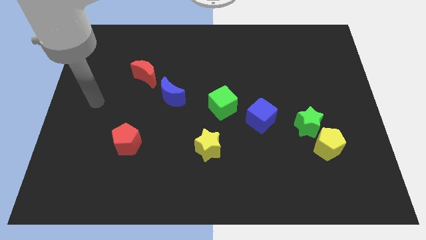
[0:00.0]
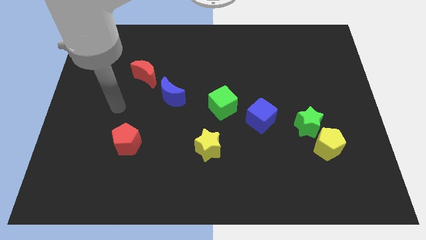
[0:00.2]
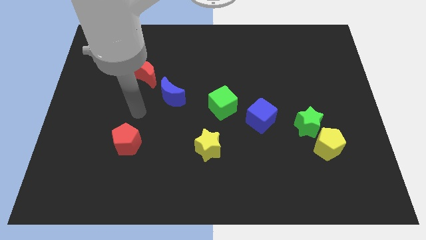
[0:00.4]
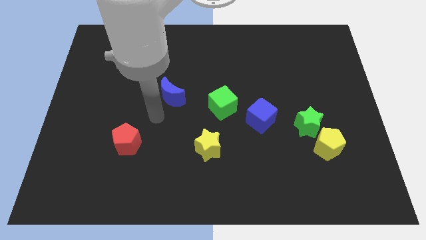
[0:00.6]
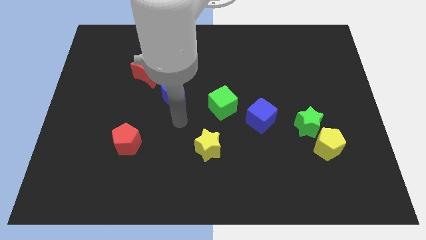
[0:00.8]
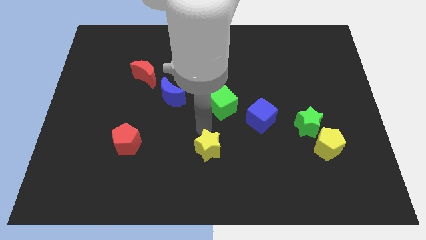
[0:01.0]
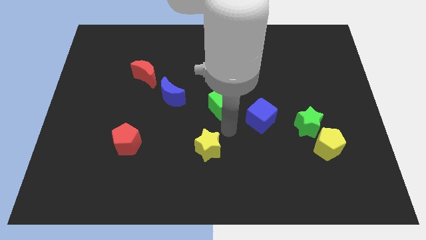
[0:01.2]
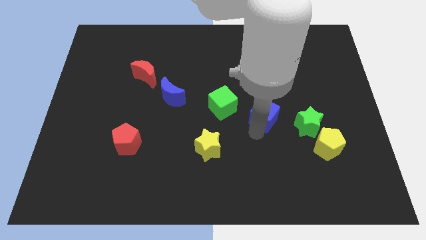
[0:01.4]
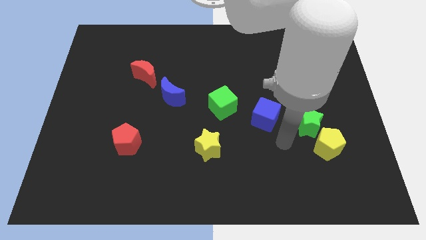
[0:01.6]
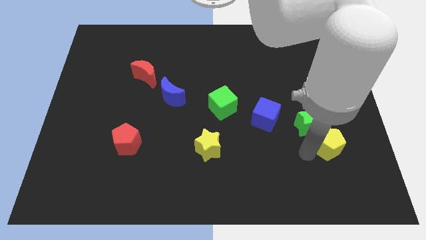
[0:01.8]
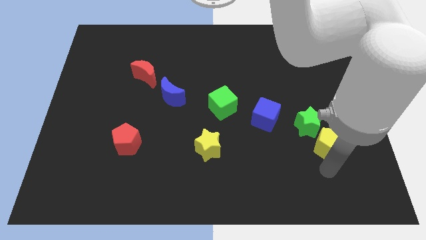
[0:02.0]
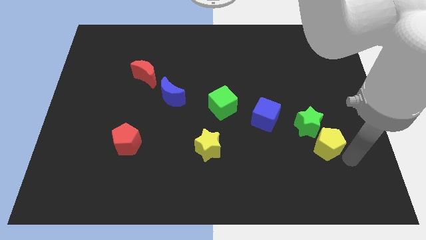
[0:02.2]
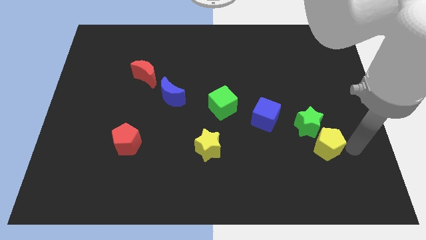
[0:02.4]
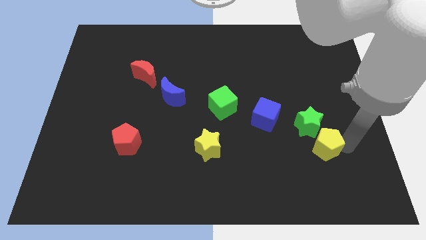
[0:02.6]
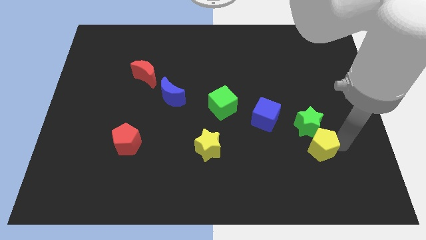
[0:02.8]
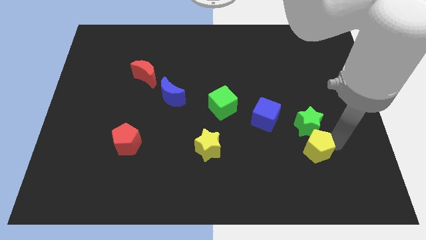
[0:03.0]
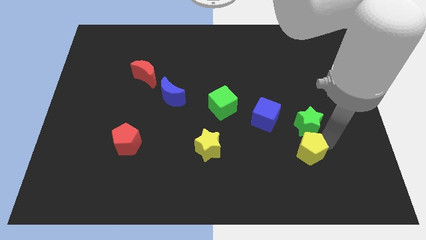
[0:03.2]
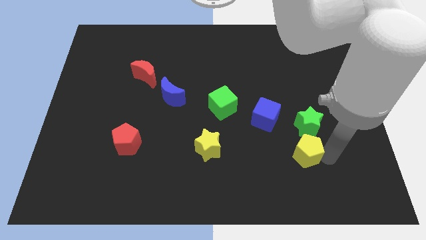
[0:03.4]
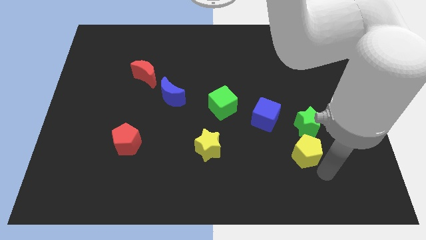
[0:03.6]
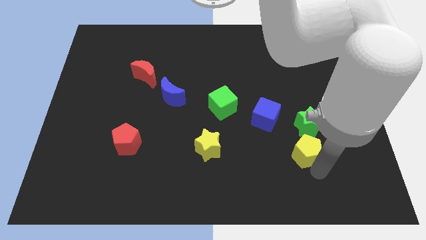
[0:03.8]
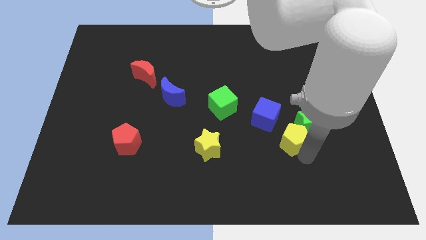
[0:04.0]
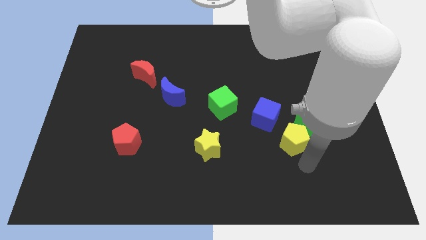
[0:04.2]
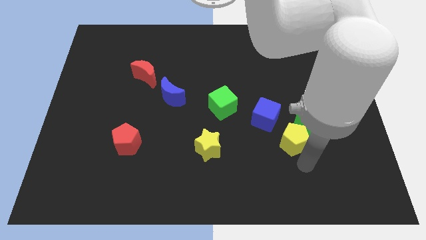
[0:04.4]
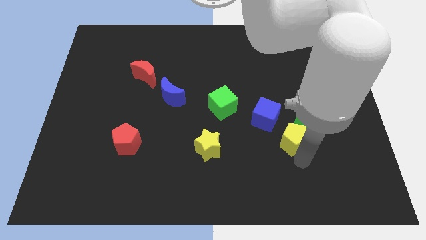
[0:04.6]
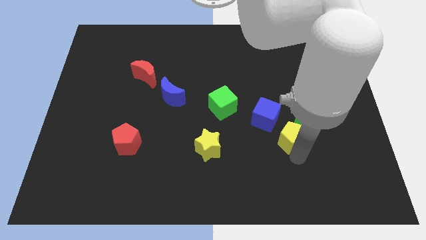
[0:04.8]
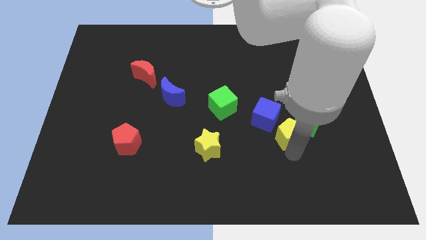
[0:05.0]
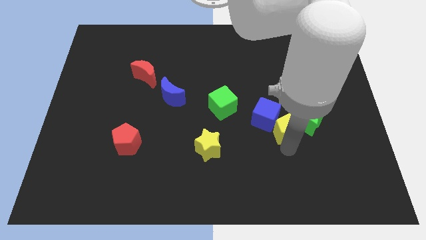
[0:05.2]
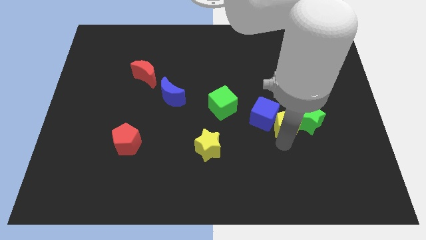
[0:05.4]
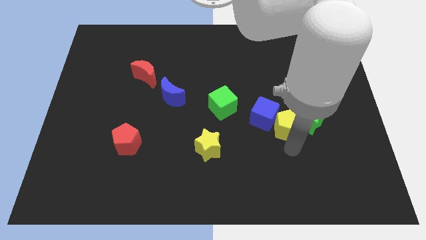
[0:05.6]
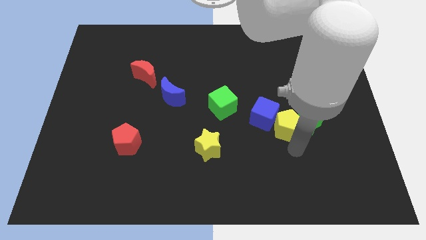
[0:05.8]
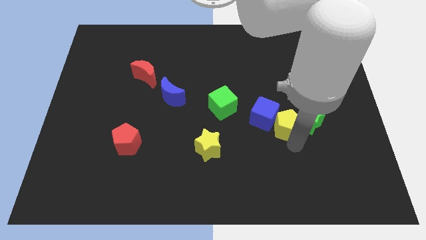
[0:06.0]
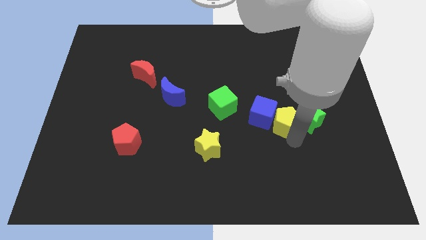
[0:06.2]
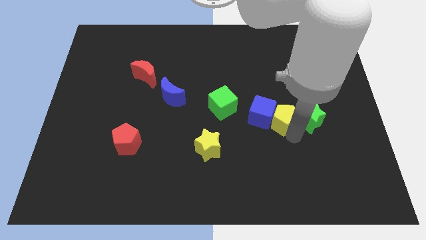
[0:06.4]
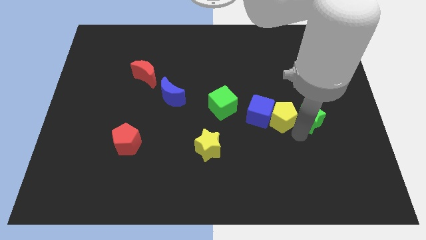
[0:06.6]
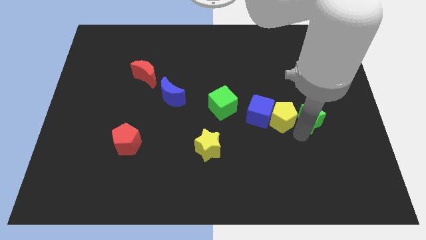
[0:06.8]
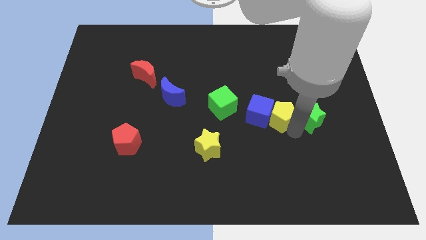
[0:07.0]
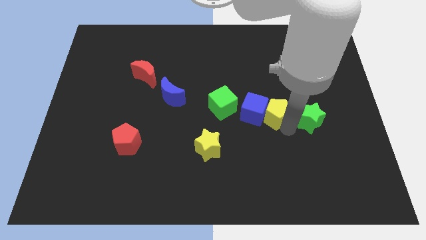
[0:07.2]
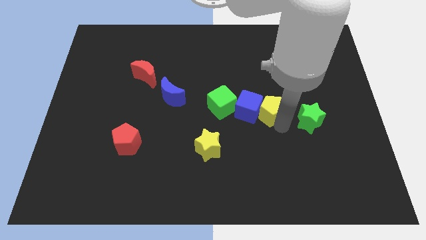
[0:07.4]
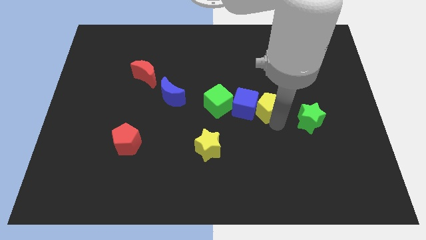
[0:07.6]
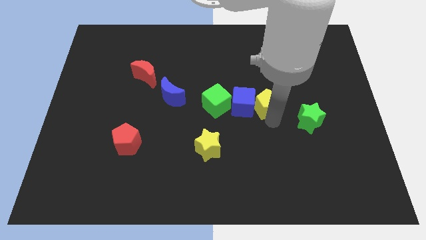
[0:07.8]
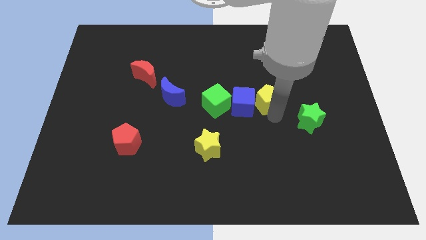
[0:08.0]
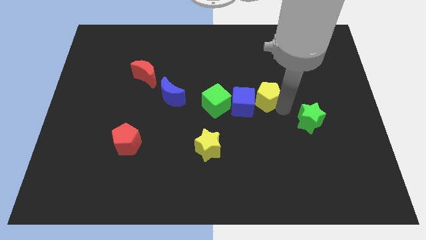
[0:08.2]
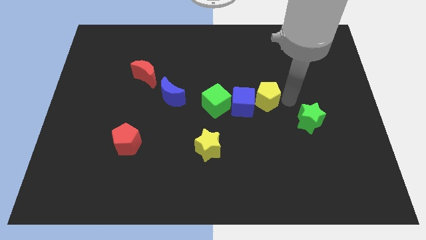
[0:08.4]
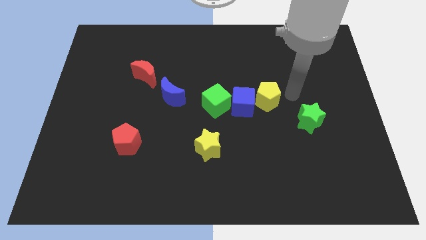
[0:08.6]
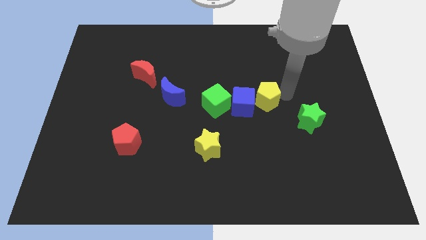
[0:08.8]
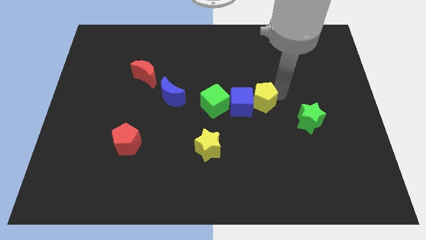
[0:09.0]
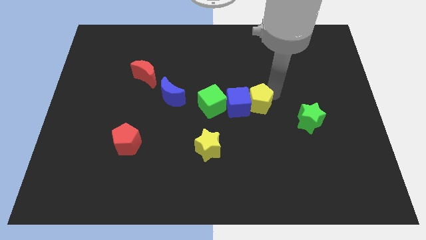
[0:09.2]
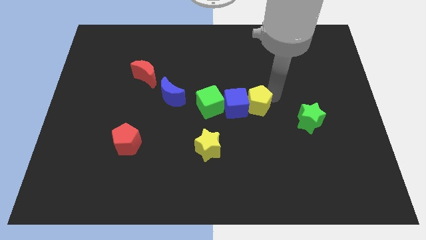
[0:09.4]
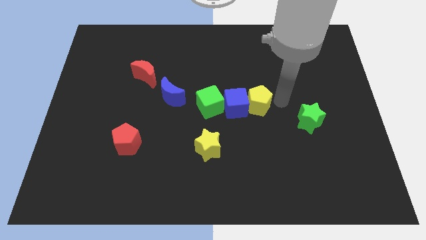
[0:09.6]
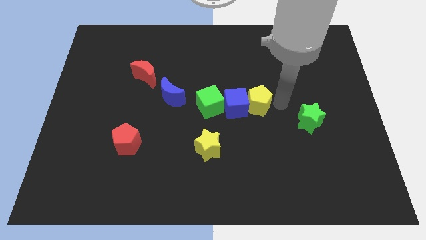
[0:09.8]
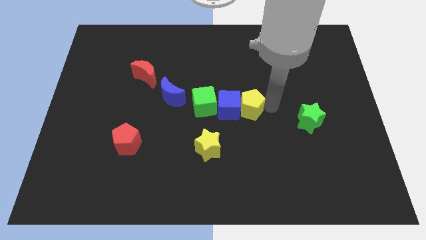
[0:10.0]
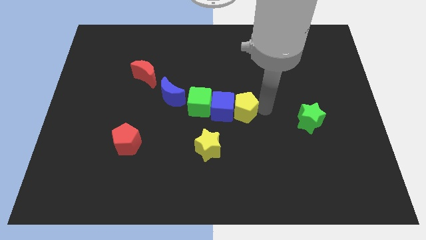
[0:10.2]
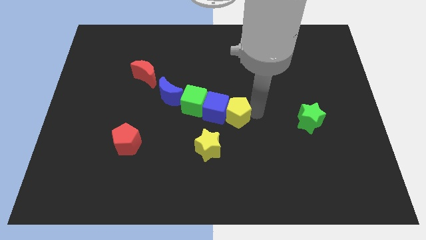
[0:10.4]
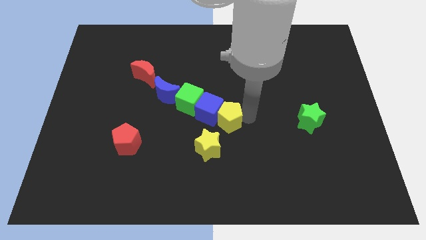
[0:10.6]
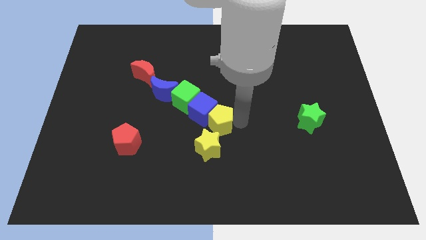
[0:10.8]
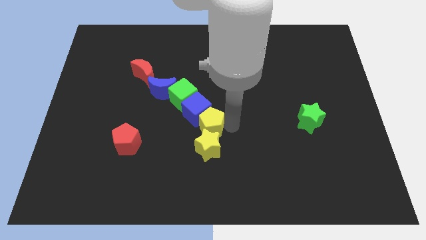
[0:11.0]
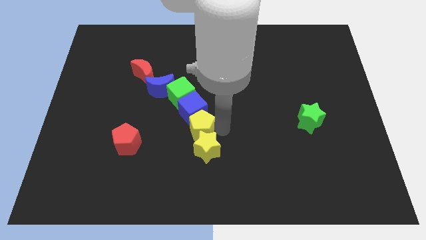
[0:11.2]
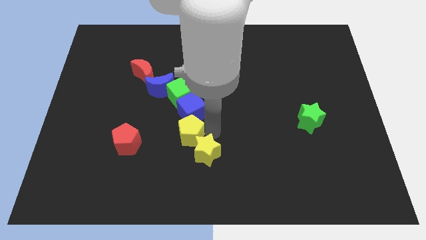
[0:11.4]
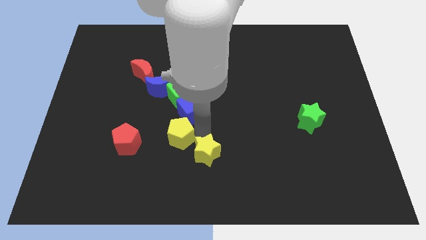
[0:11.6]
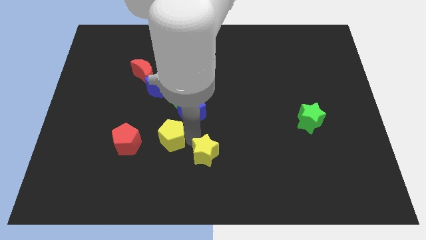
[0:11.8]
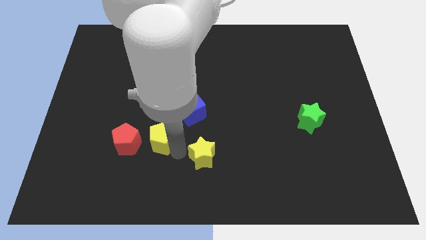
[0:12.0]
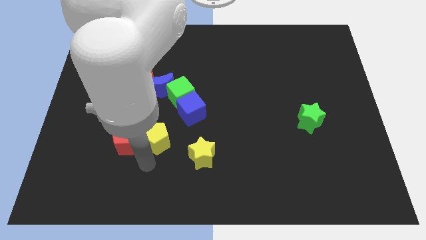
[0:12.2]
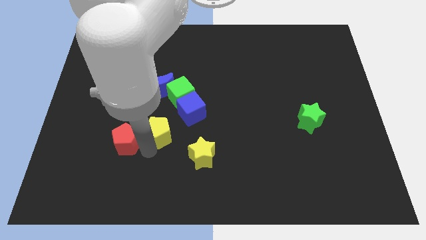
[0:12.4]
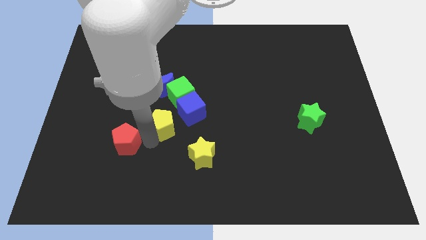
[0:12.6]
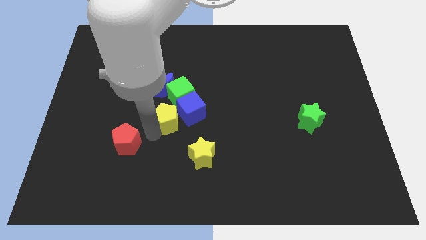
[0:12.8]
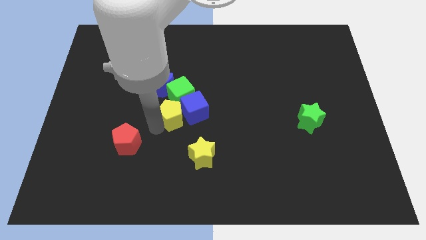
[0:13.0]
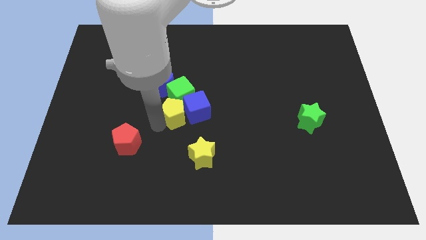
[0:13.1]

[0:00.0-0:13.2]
push the yellow pentagon next to the green cube

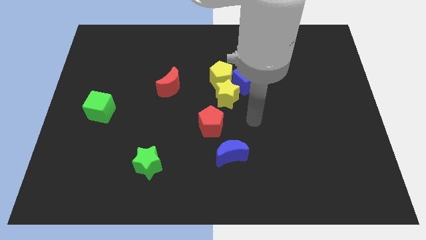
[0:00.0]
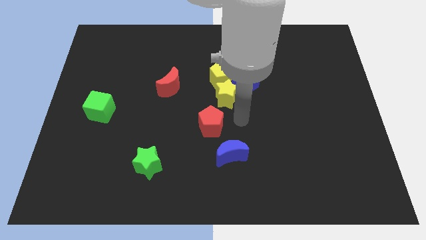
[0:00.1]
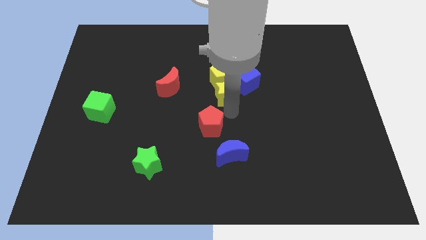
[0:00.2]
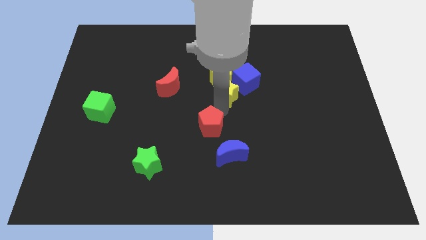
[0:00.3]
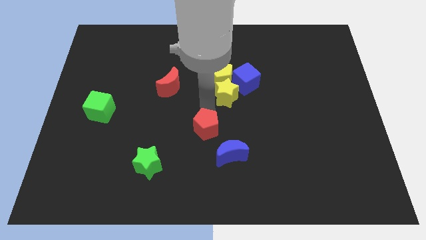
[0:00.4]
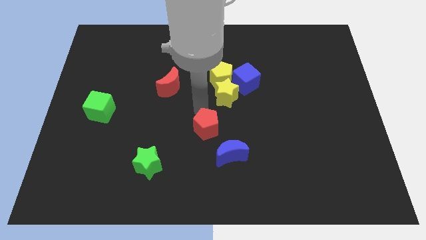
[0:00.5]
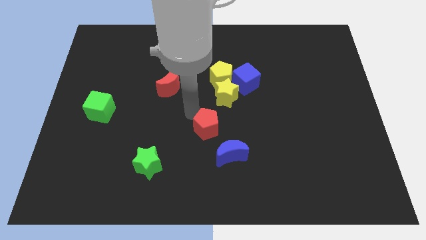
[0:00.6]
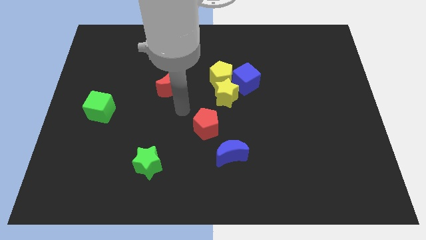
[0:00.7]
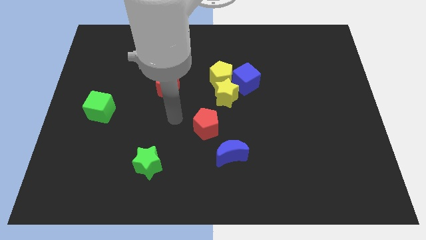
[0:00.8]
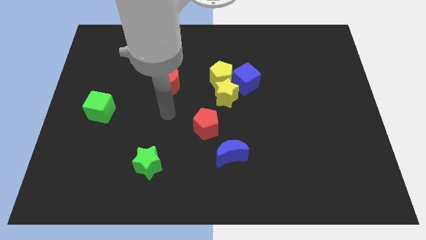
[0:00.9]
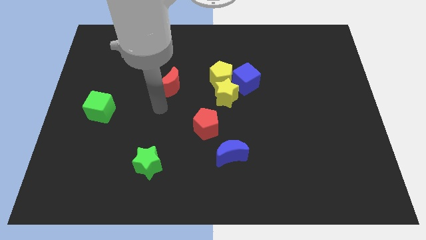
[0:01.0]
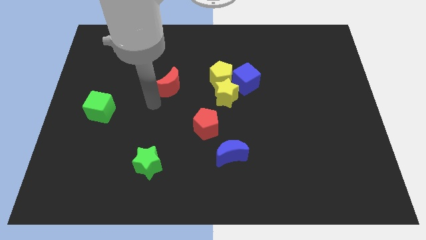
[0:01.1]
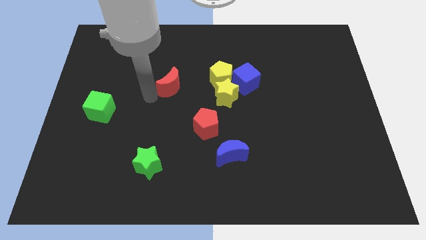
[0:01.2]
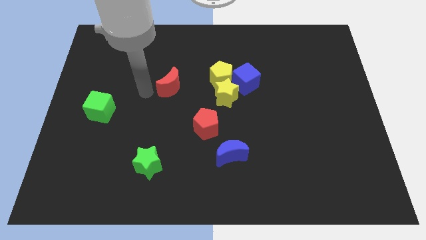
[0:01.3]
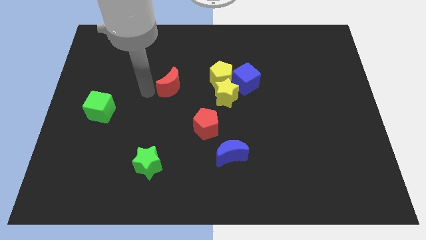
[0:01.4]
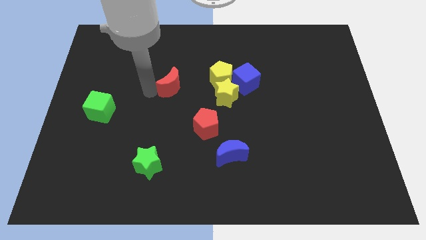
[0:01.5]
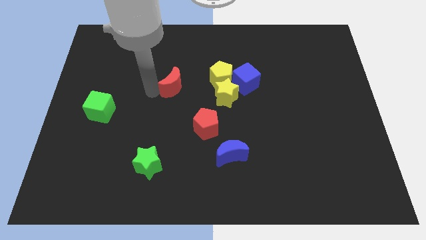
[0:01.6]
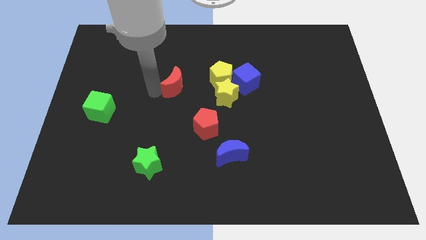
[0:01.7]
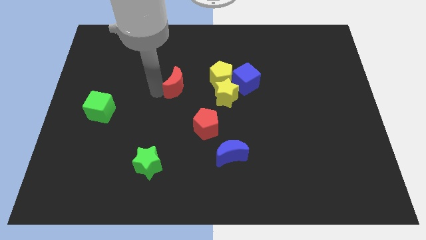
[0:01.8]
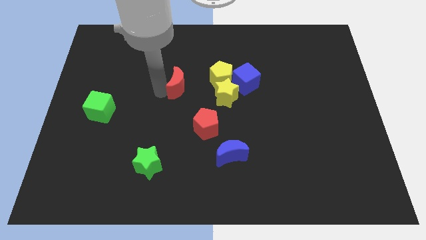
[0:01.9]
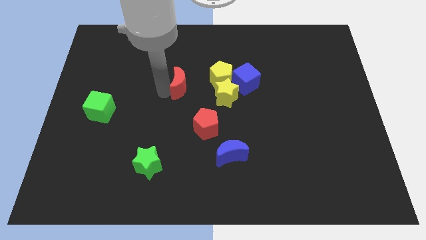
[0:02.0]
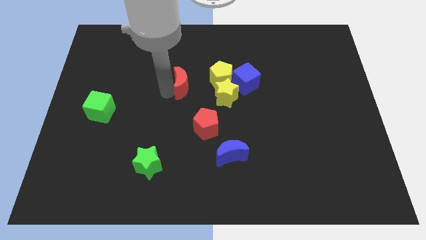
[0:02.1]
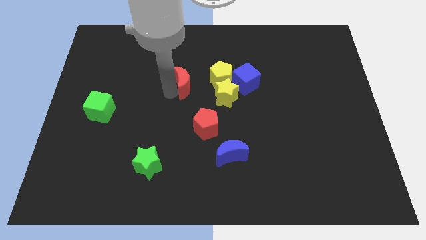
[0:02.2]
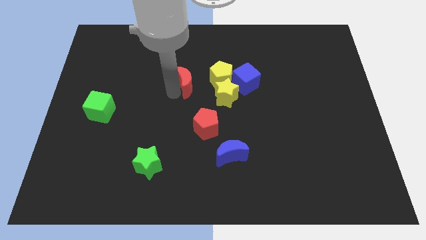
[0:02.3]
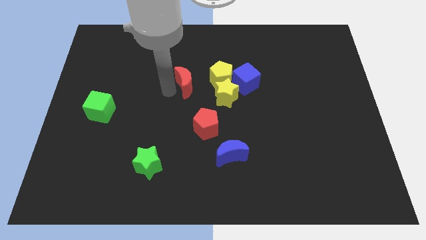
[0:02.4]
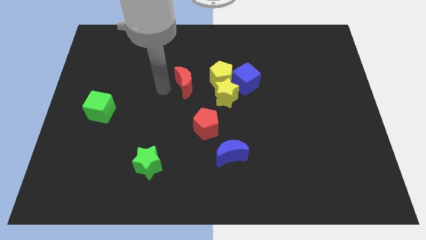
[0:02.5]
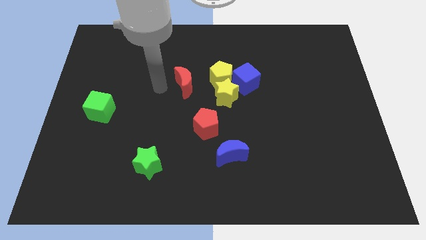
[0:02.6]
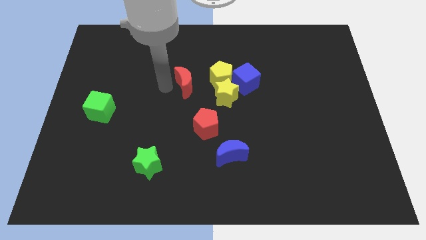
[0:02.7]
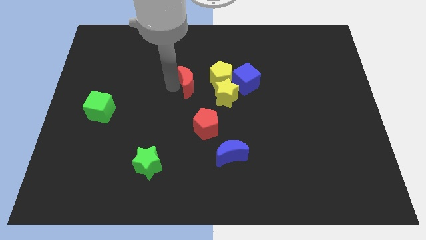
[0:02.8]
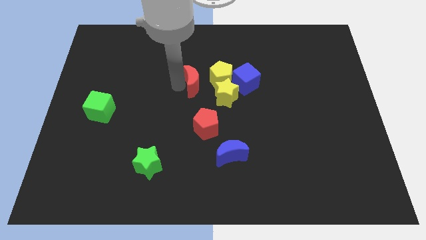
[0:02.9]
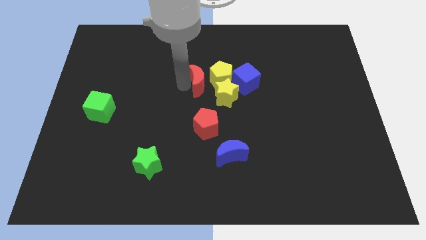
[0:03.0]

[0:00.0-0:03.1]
slide the red moon towards the yellow pentagon
